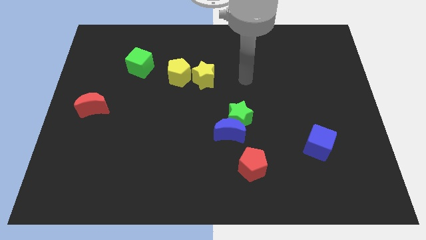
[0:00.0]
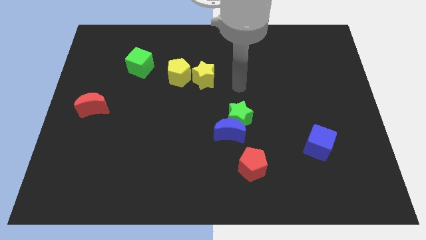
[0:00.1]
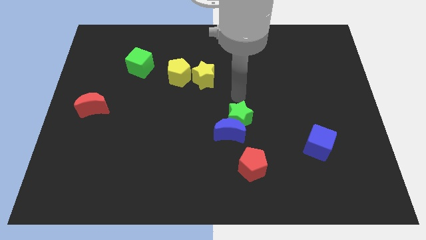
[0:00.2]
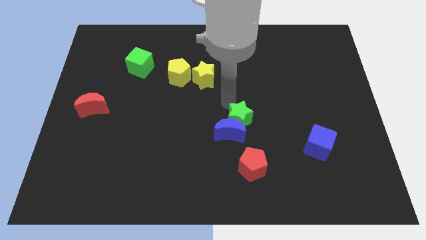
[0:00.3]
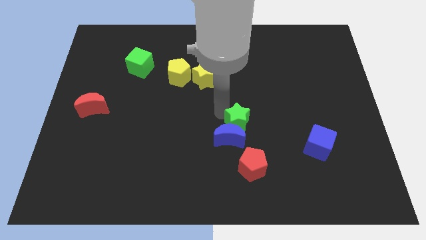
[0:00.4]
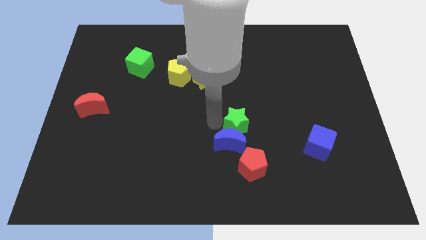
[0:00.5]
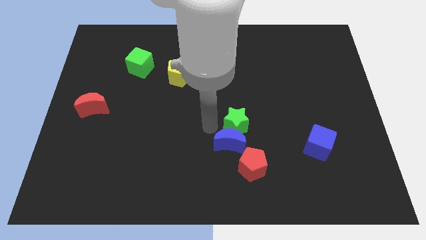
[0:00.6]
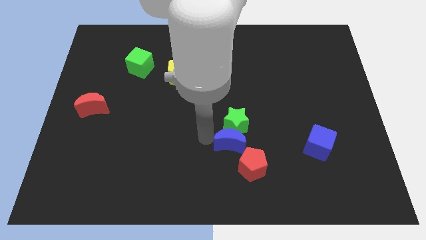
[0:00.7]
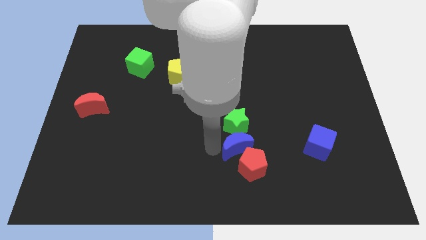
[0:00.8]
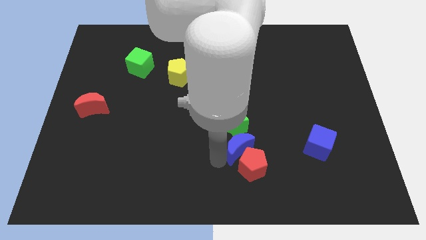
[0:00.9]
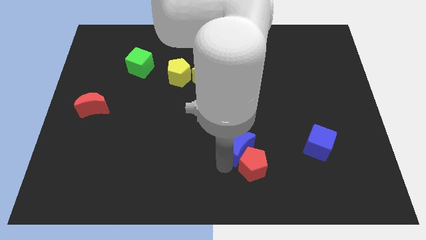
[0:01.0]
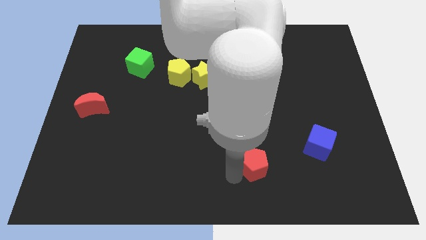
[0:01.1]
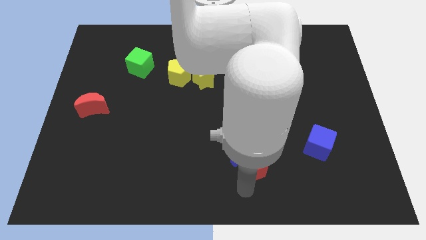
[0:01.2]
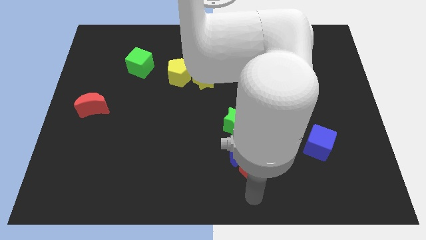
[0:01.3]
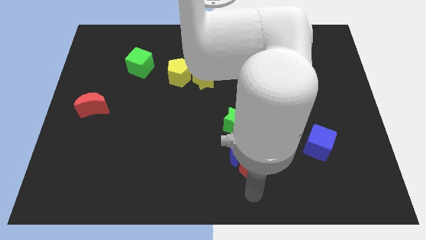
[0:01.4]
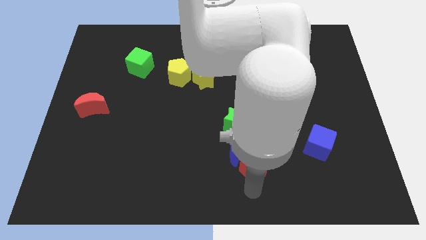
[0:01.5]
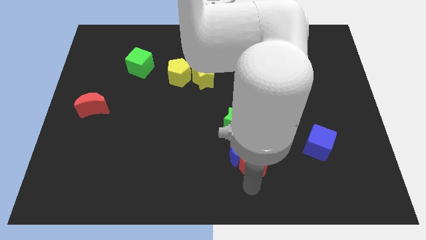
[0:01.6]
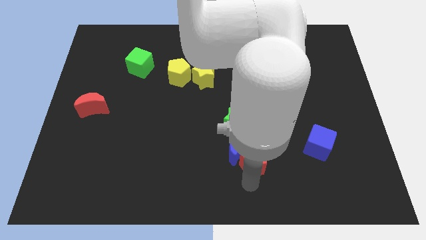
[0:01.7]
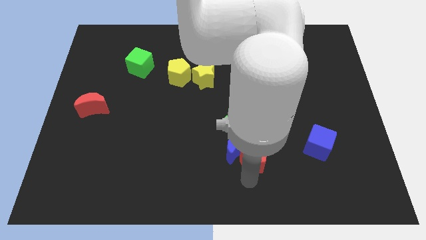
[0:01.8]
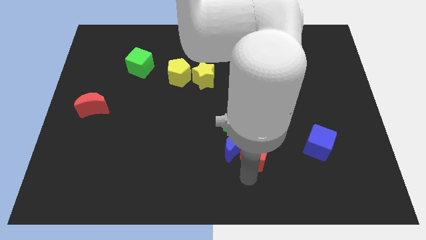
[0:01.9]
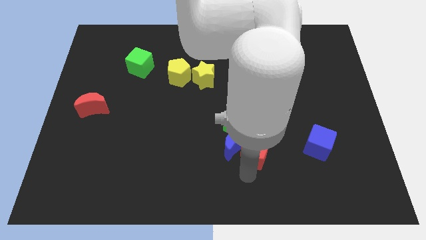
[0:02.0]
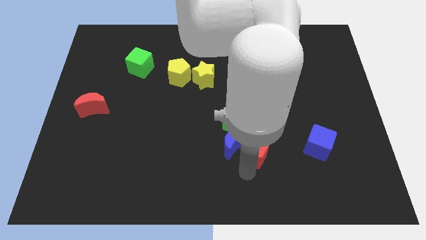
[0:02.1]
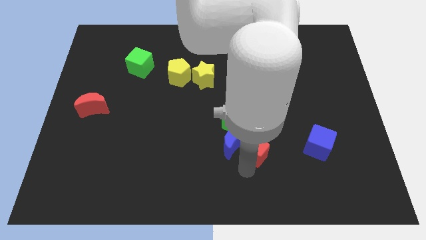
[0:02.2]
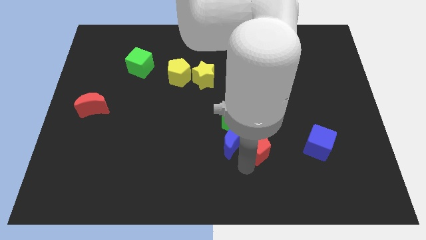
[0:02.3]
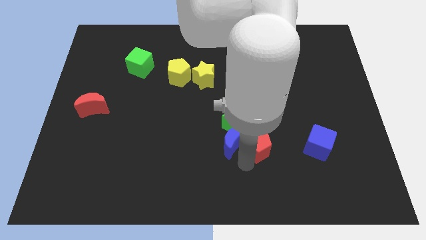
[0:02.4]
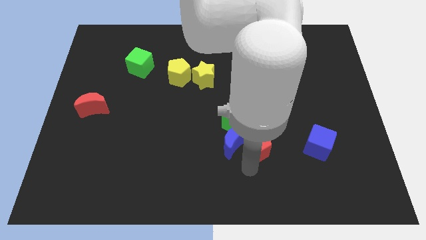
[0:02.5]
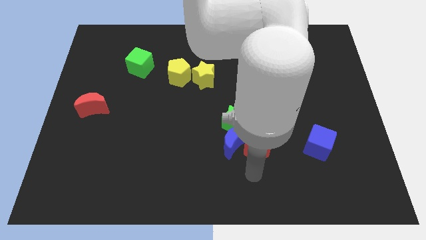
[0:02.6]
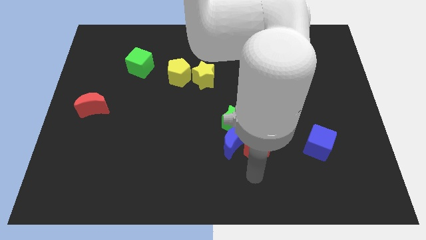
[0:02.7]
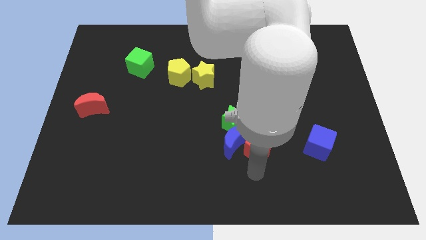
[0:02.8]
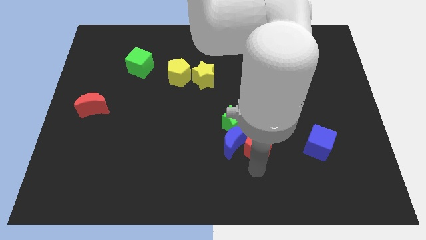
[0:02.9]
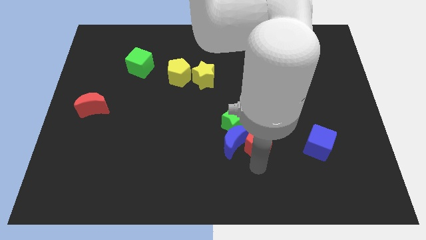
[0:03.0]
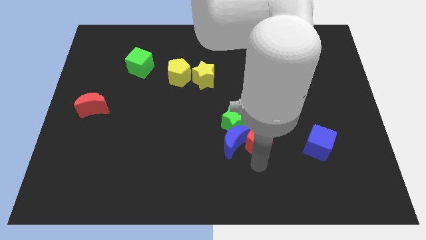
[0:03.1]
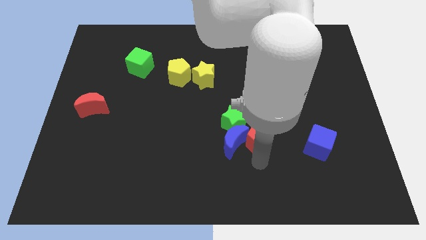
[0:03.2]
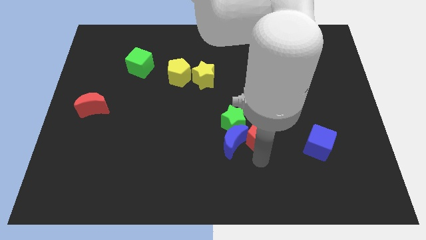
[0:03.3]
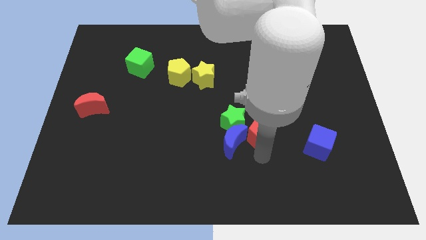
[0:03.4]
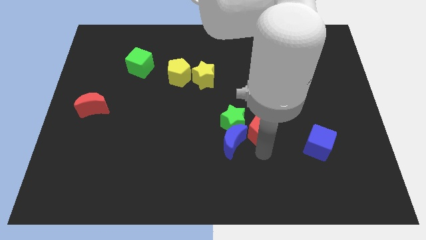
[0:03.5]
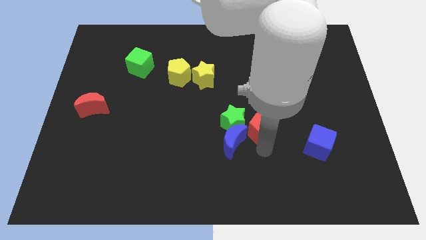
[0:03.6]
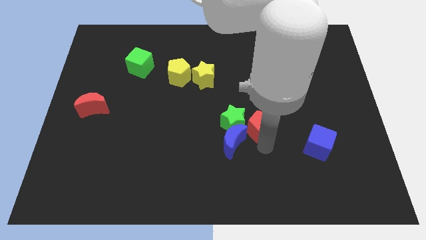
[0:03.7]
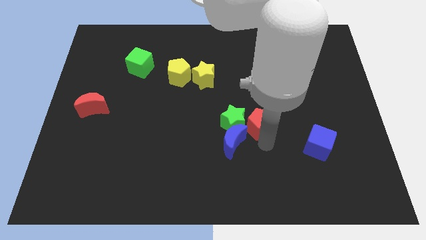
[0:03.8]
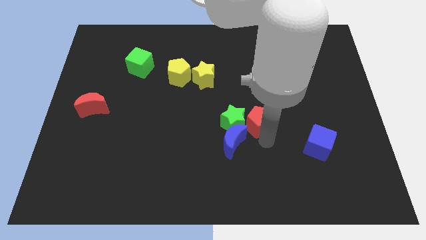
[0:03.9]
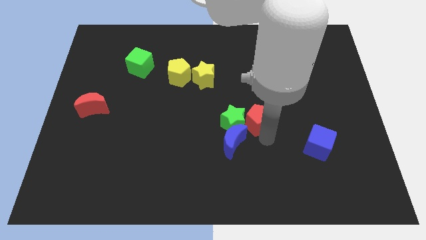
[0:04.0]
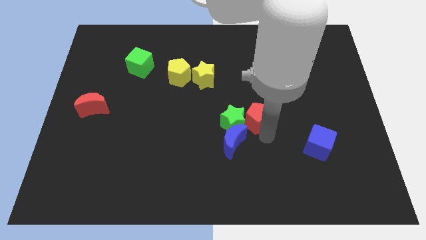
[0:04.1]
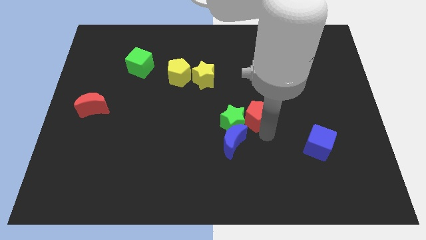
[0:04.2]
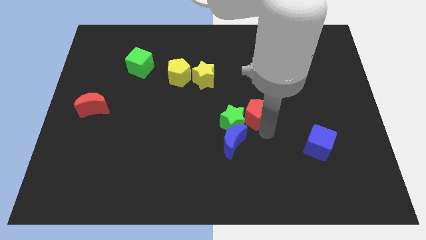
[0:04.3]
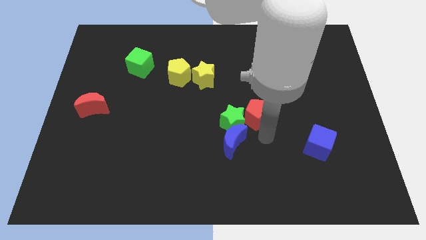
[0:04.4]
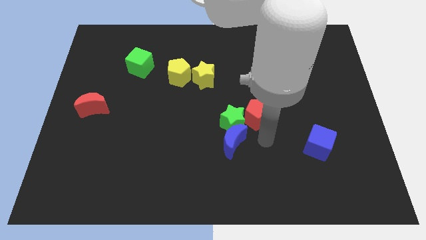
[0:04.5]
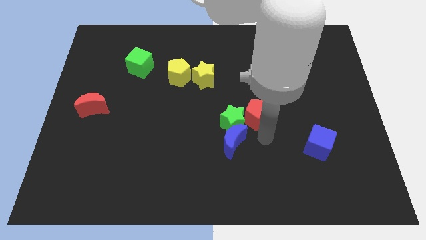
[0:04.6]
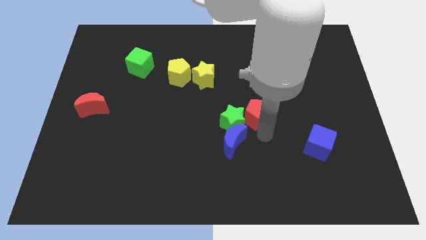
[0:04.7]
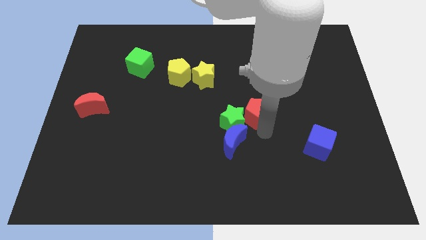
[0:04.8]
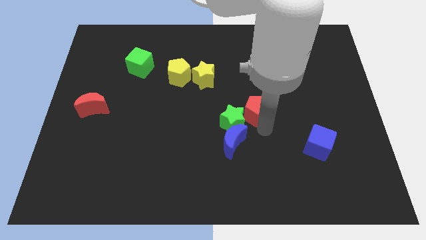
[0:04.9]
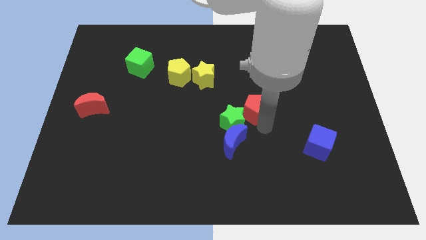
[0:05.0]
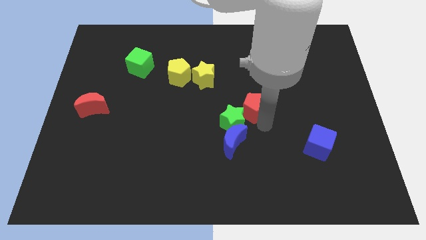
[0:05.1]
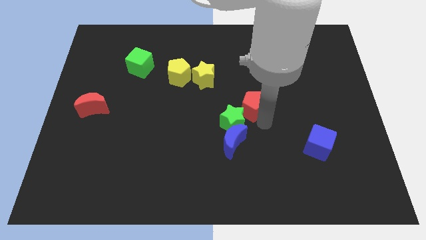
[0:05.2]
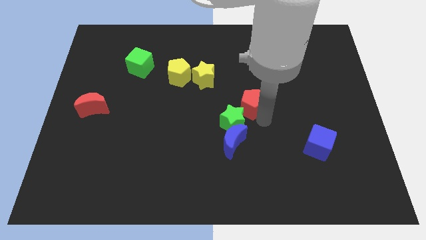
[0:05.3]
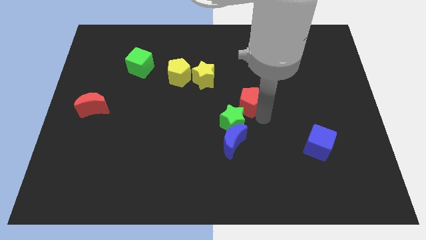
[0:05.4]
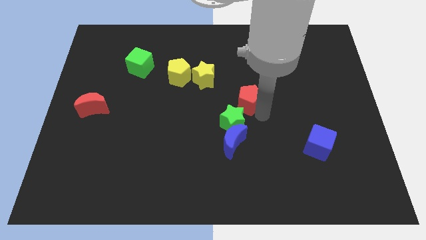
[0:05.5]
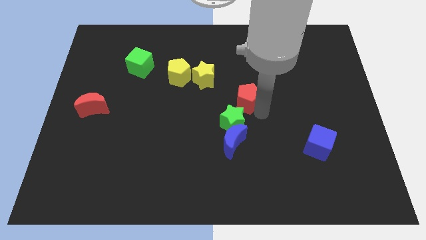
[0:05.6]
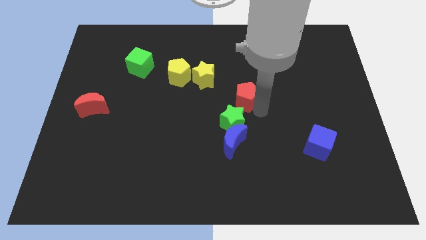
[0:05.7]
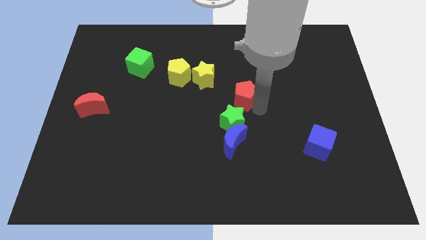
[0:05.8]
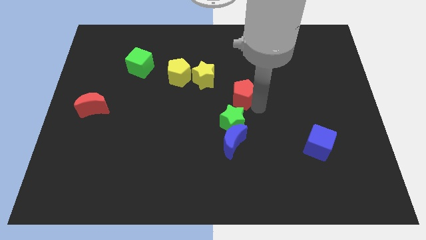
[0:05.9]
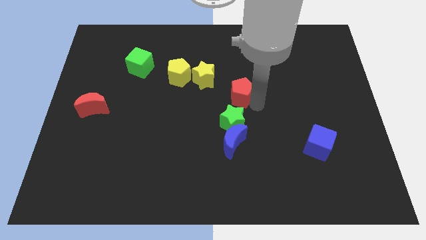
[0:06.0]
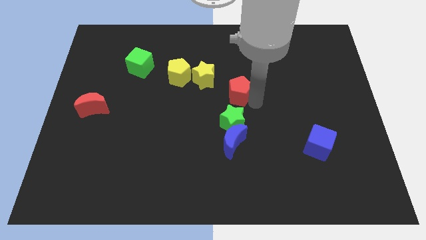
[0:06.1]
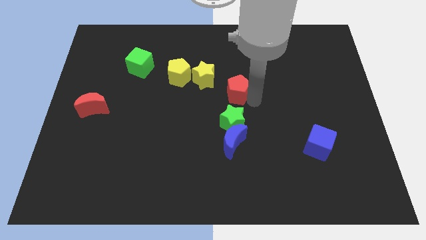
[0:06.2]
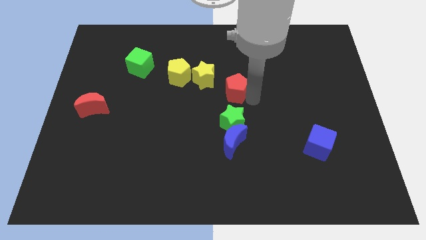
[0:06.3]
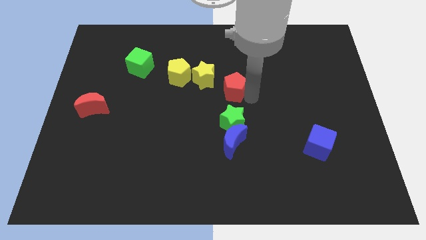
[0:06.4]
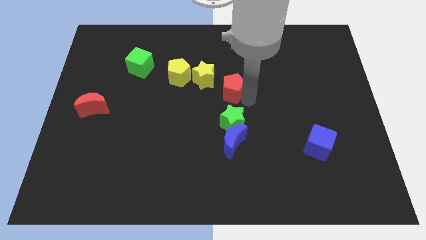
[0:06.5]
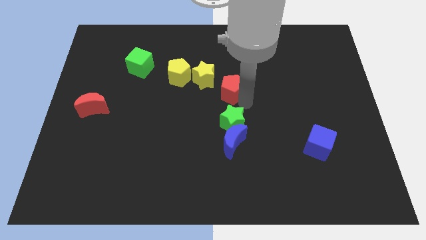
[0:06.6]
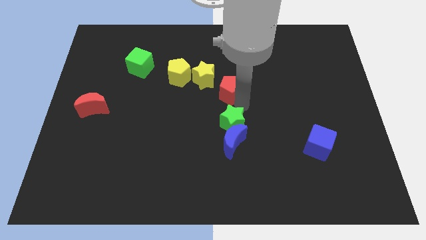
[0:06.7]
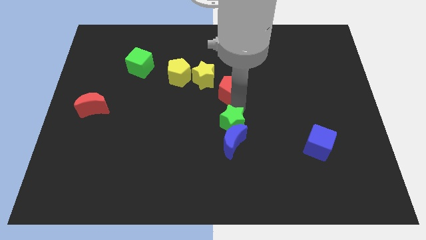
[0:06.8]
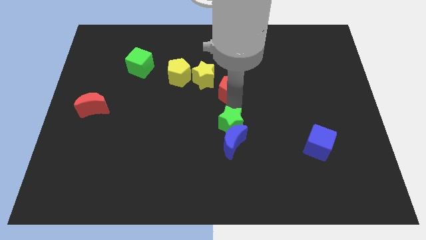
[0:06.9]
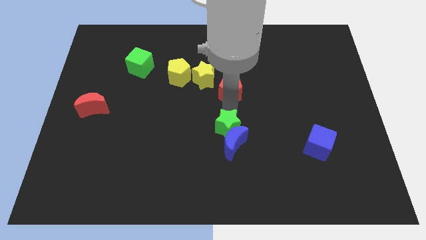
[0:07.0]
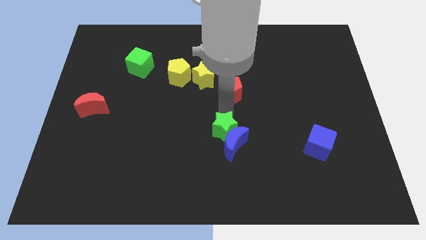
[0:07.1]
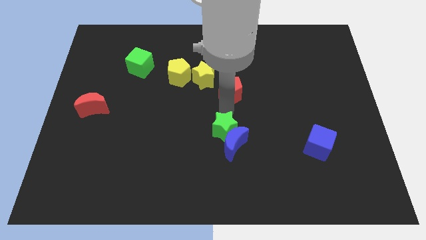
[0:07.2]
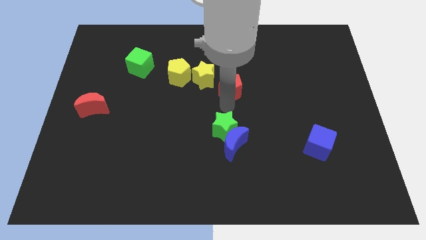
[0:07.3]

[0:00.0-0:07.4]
slide the red pentagon to the right side of the yellow pentagon
